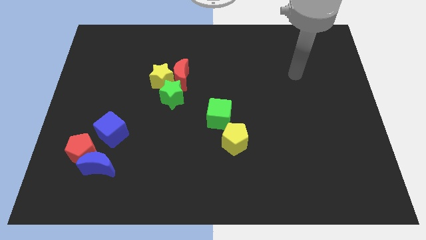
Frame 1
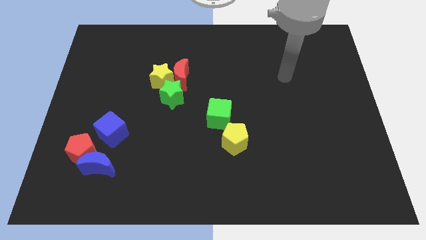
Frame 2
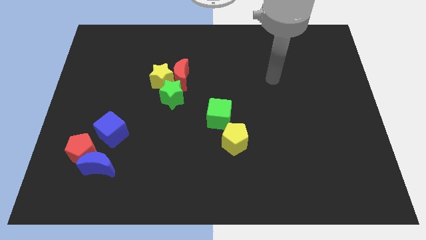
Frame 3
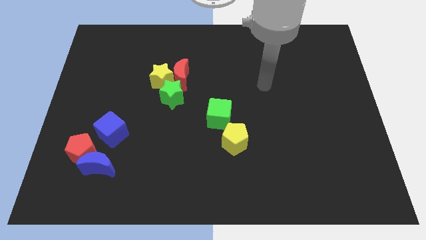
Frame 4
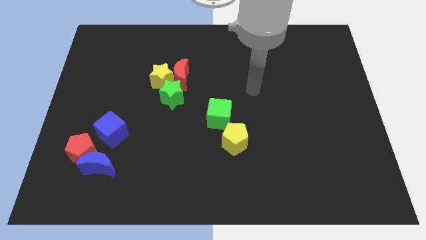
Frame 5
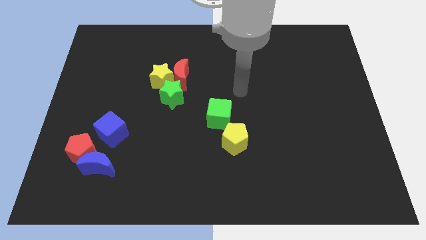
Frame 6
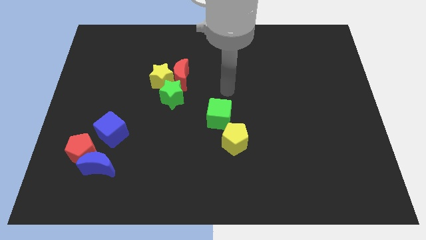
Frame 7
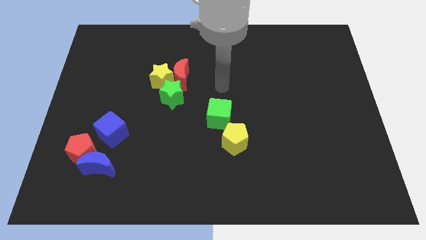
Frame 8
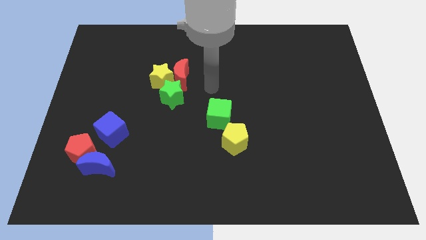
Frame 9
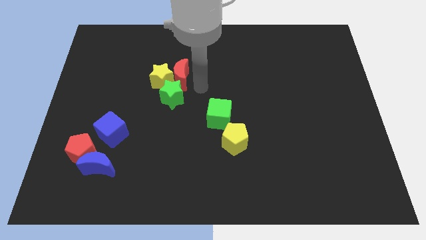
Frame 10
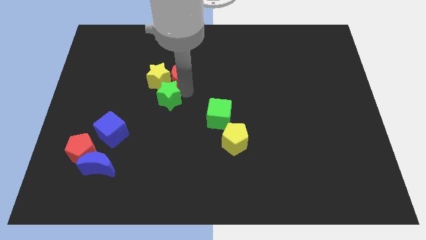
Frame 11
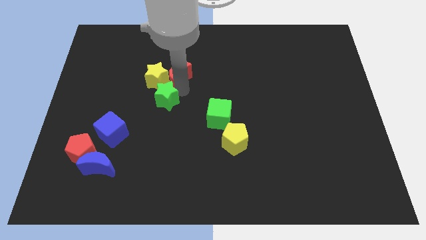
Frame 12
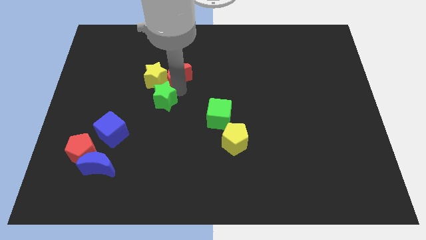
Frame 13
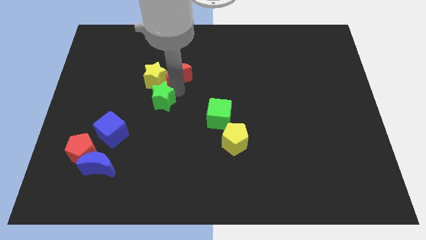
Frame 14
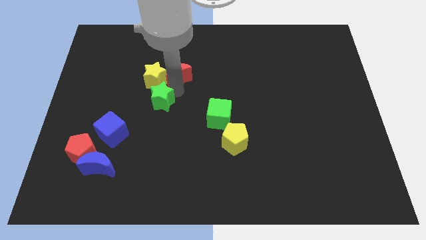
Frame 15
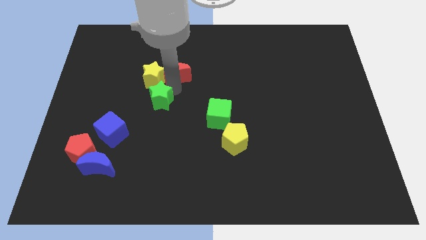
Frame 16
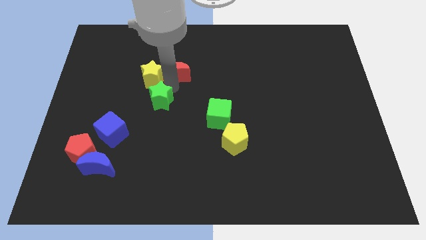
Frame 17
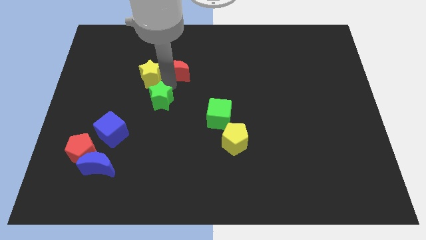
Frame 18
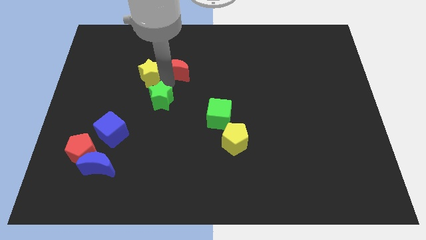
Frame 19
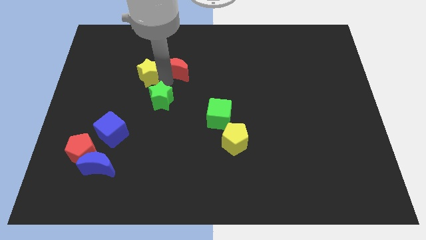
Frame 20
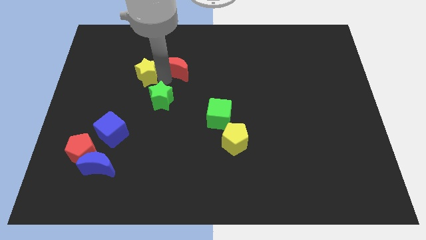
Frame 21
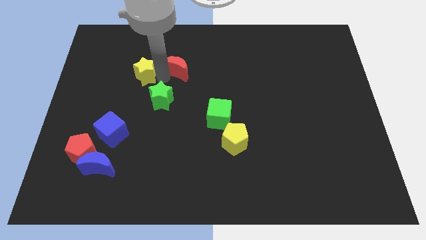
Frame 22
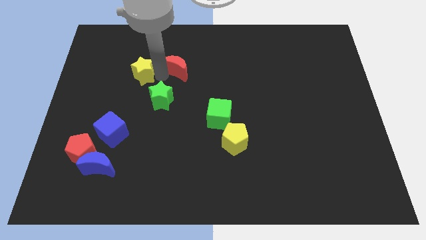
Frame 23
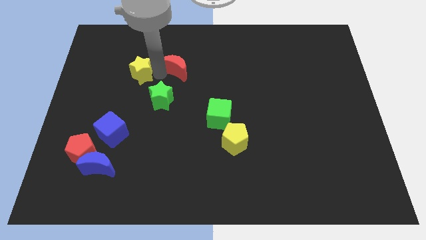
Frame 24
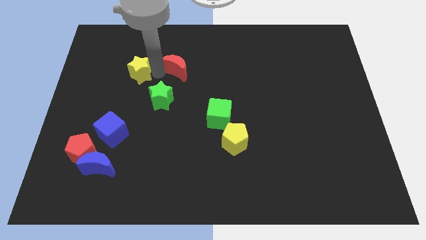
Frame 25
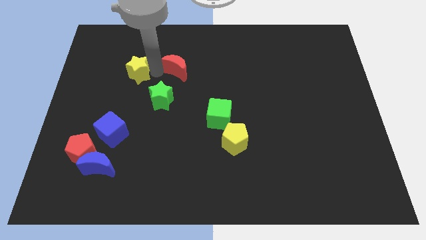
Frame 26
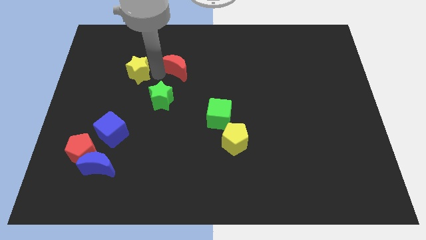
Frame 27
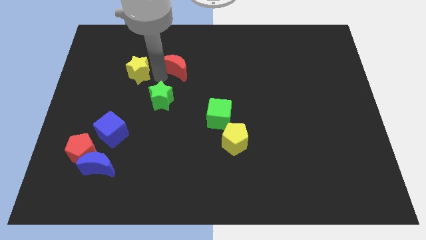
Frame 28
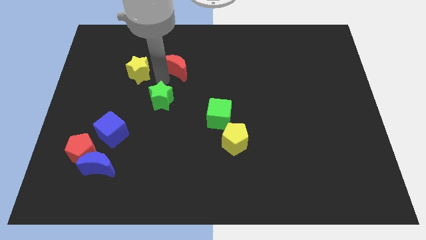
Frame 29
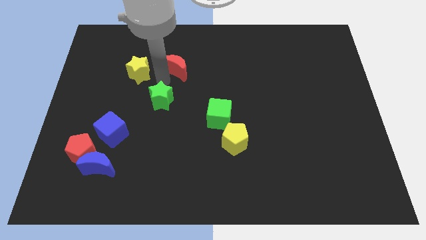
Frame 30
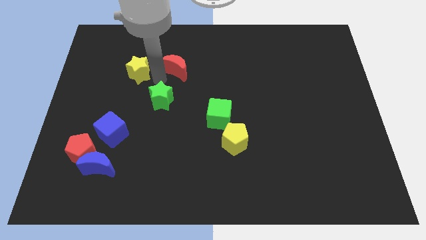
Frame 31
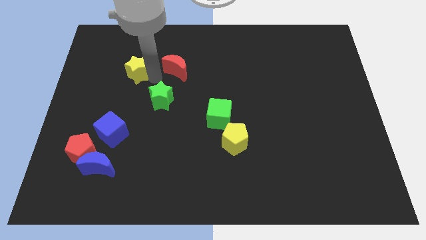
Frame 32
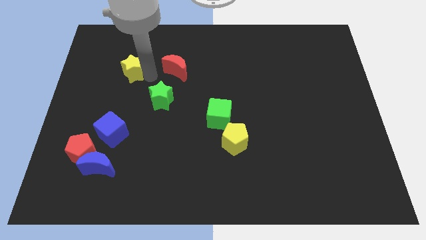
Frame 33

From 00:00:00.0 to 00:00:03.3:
pull the yellow star apart from the red moon and green star

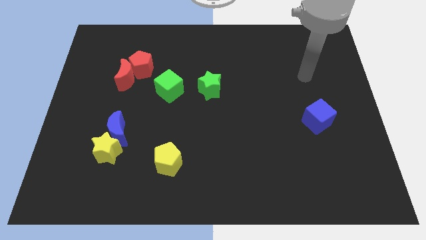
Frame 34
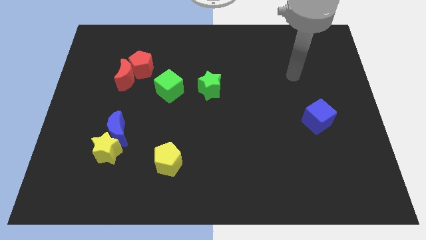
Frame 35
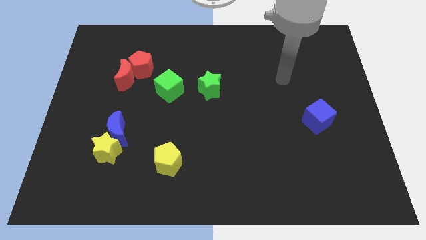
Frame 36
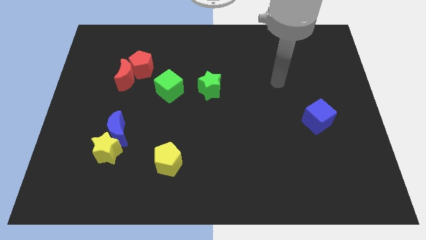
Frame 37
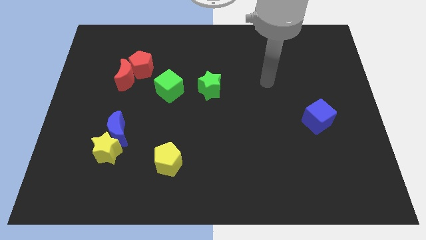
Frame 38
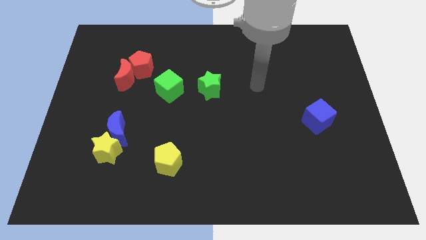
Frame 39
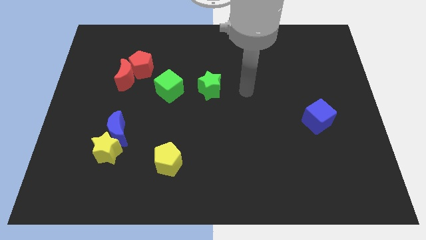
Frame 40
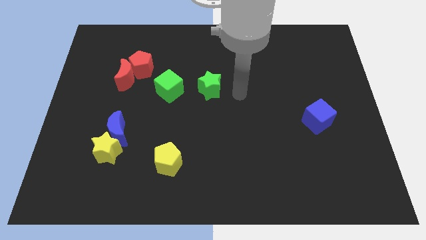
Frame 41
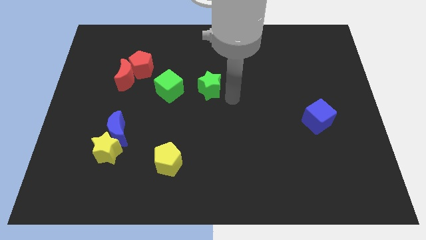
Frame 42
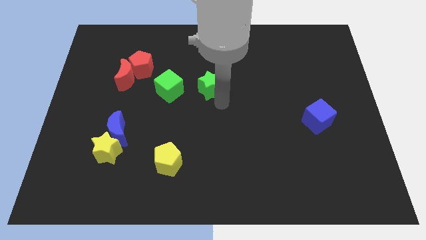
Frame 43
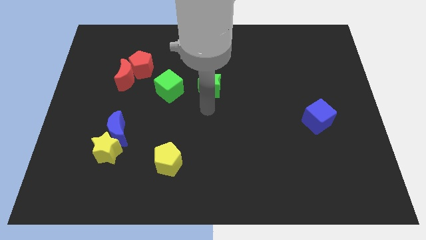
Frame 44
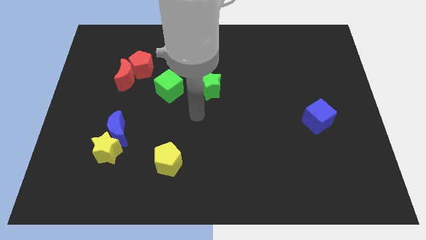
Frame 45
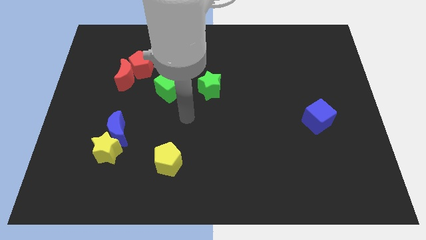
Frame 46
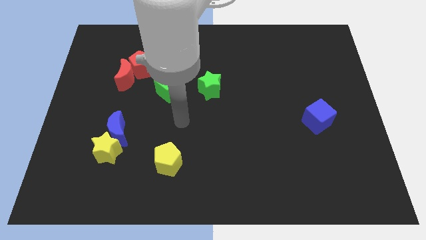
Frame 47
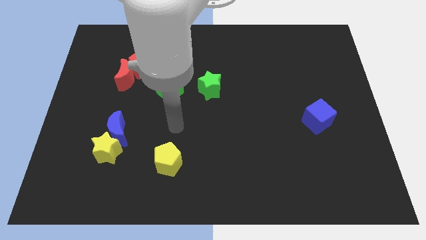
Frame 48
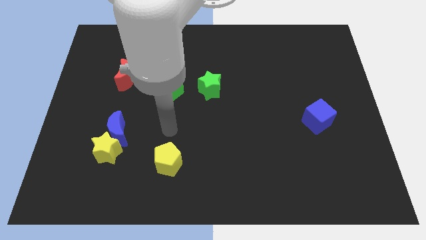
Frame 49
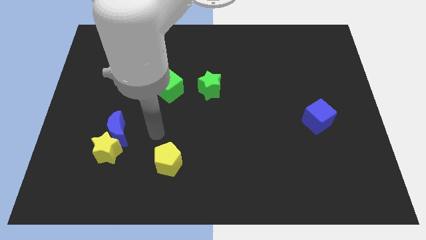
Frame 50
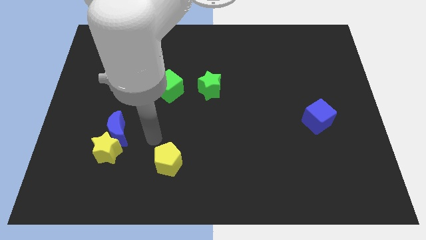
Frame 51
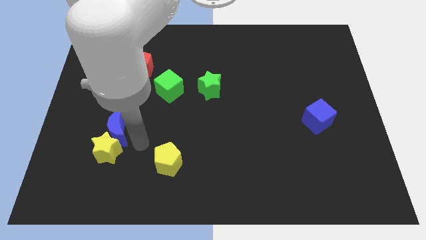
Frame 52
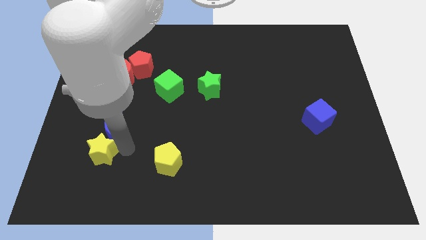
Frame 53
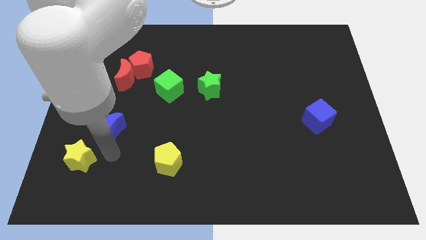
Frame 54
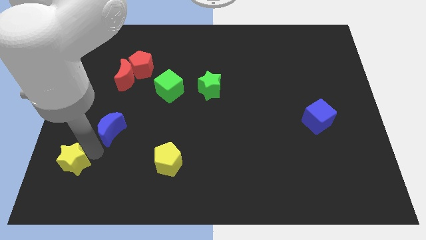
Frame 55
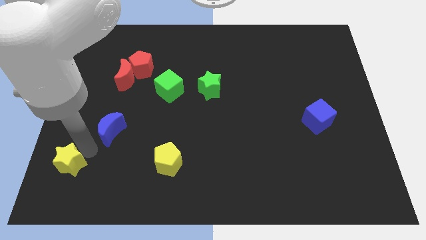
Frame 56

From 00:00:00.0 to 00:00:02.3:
separate the blue moon from the yellow star

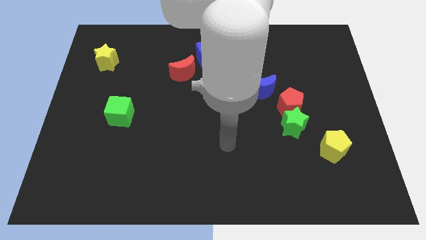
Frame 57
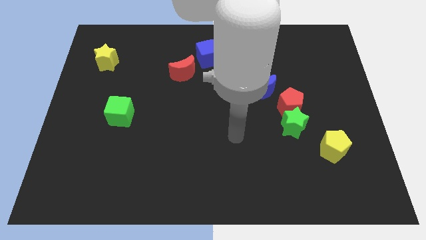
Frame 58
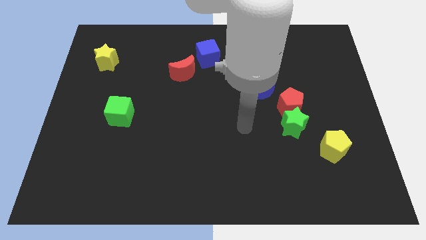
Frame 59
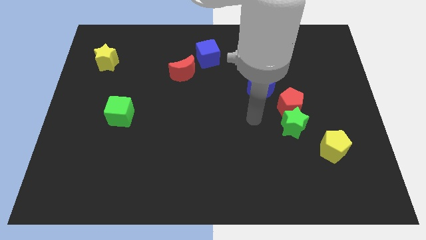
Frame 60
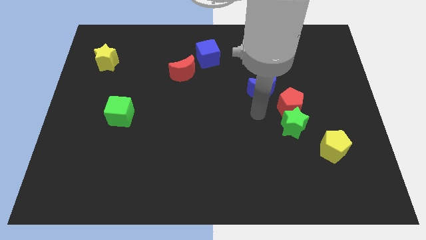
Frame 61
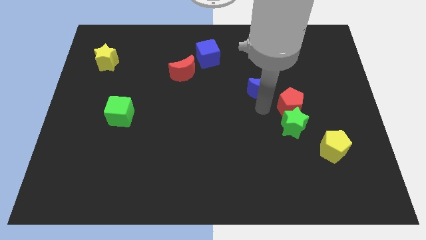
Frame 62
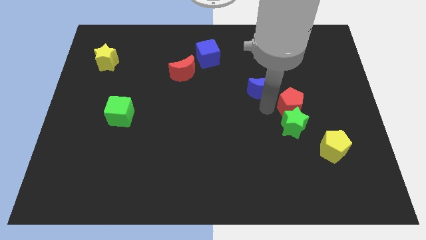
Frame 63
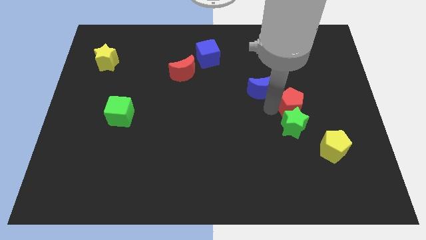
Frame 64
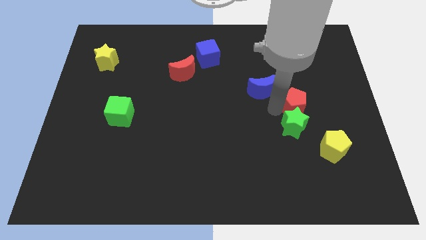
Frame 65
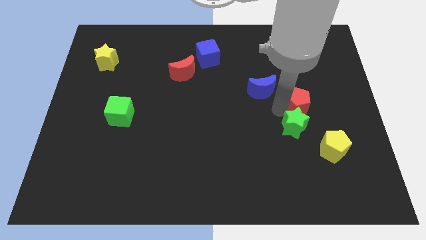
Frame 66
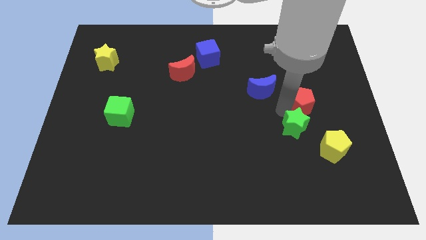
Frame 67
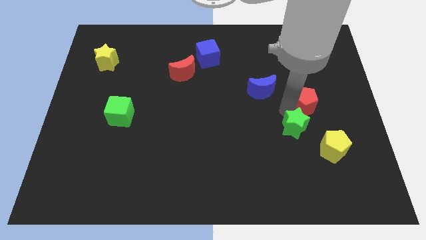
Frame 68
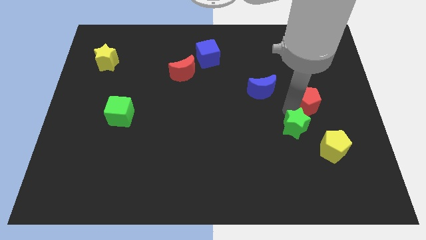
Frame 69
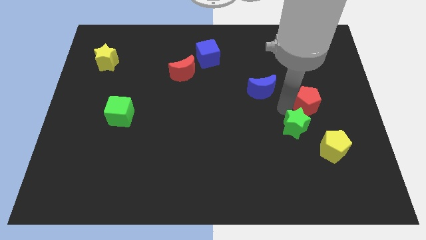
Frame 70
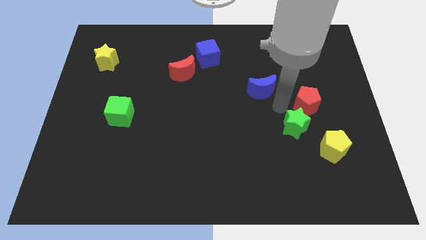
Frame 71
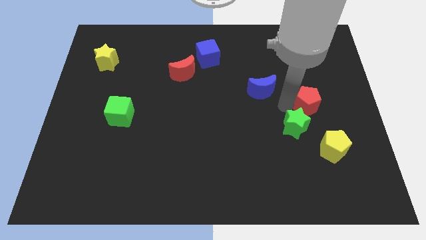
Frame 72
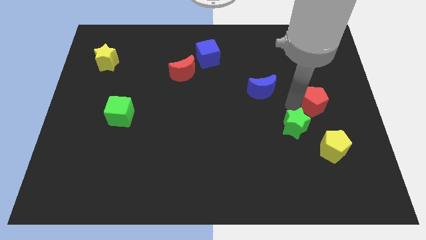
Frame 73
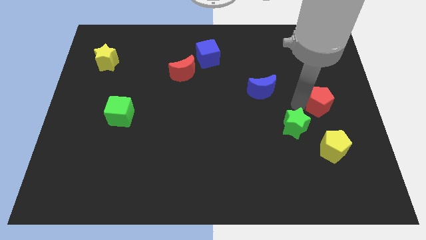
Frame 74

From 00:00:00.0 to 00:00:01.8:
move the red pentagon away from the green star and blue moon

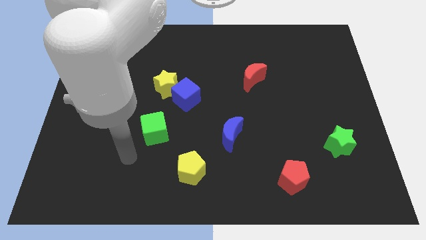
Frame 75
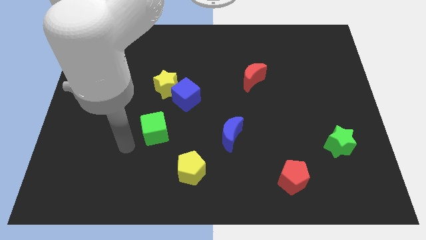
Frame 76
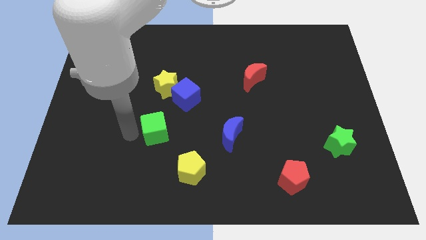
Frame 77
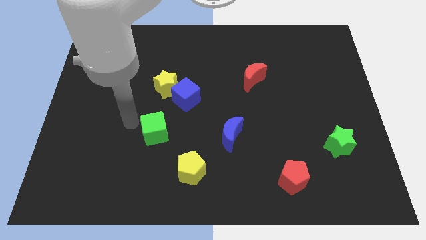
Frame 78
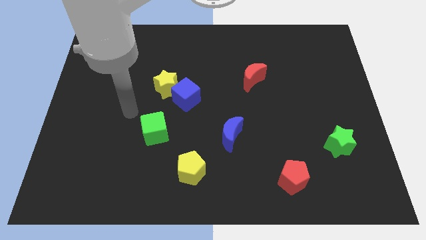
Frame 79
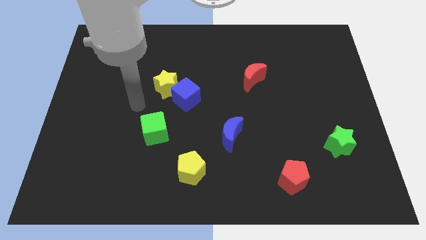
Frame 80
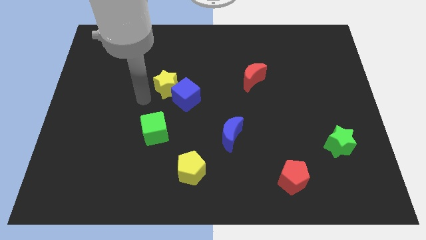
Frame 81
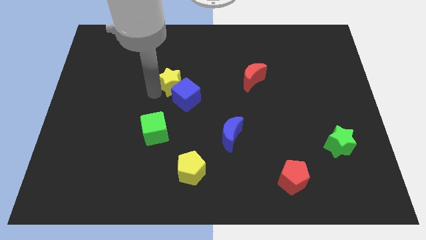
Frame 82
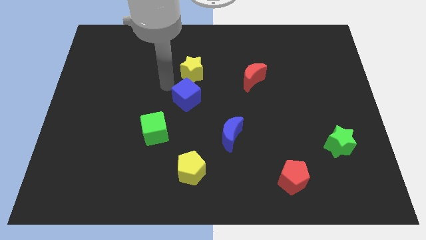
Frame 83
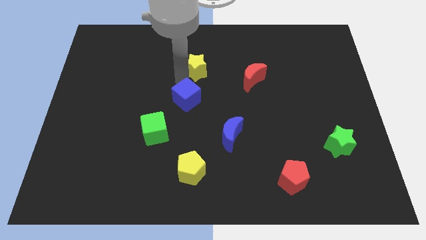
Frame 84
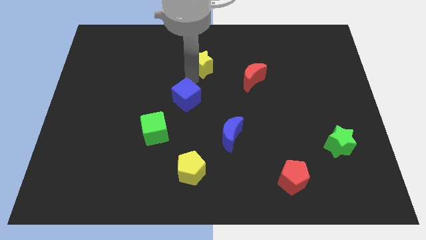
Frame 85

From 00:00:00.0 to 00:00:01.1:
pull the blue cube apart from the yellow star

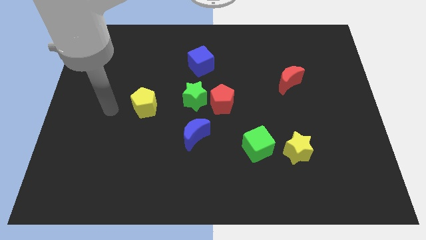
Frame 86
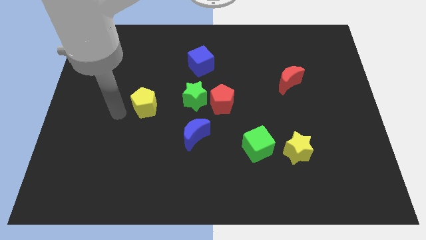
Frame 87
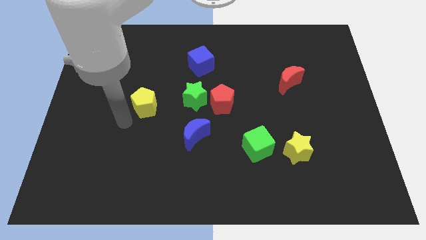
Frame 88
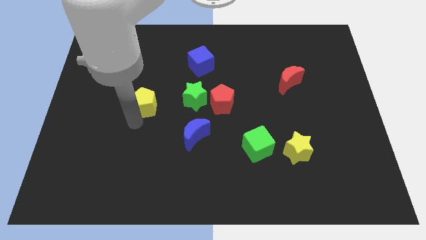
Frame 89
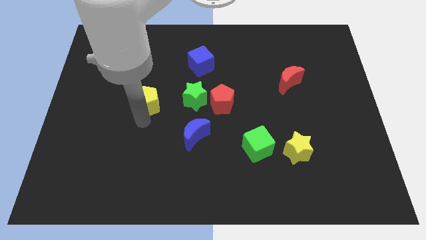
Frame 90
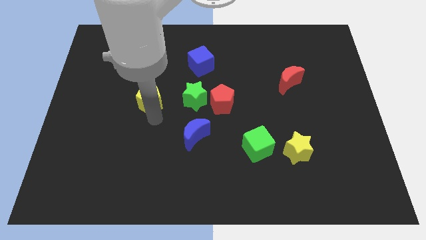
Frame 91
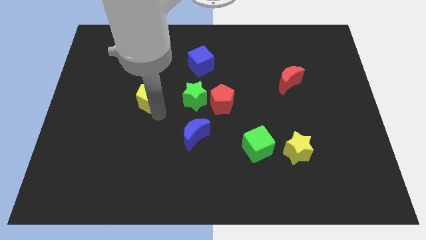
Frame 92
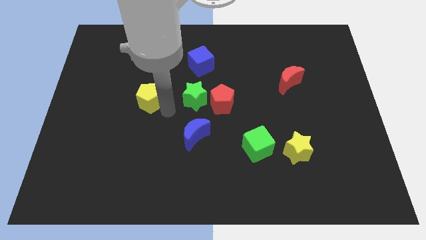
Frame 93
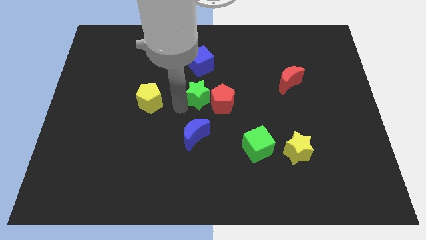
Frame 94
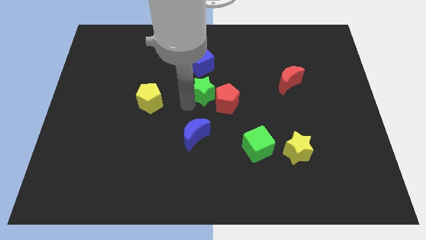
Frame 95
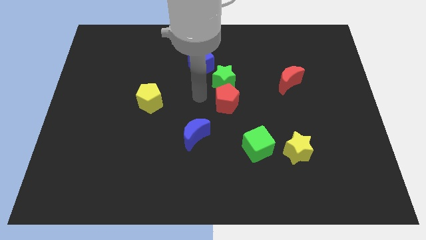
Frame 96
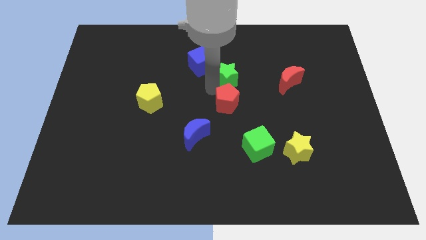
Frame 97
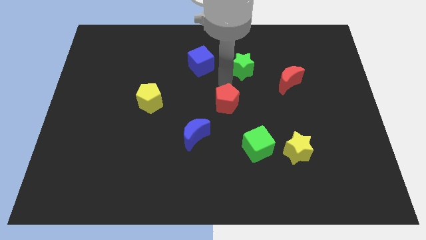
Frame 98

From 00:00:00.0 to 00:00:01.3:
pull the red pentagon apart from the green star
